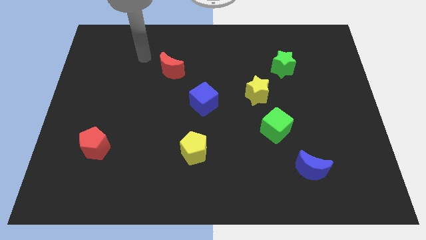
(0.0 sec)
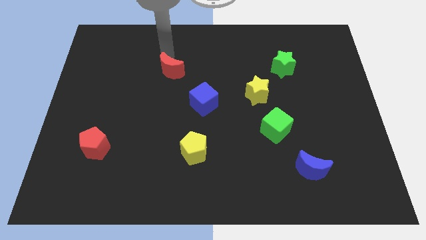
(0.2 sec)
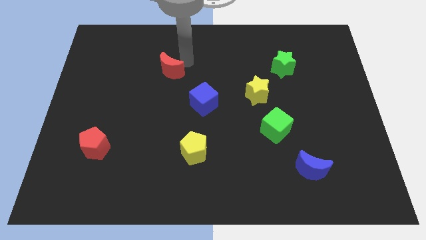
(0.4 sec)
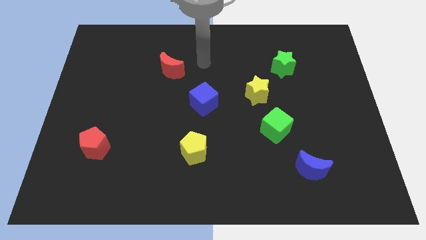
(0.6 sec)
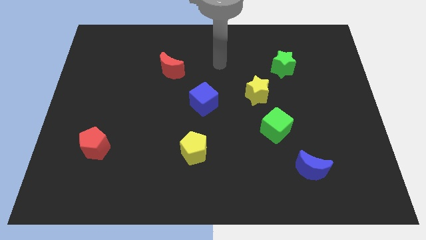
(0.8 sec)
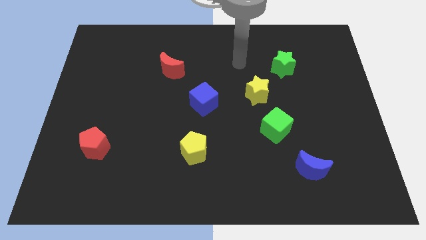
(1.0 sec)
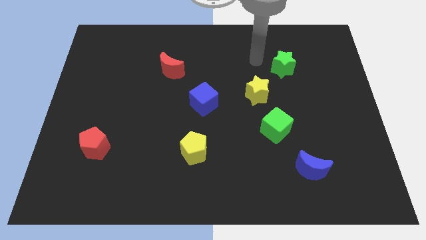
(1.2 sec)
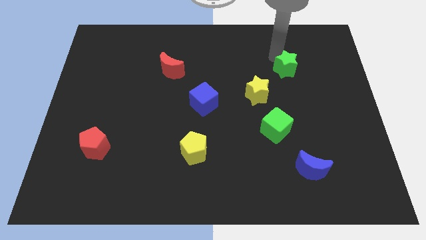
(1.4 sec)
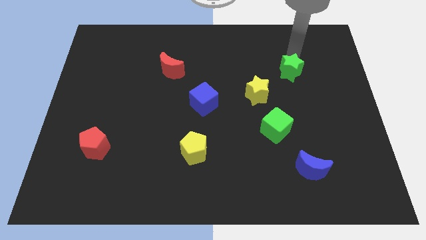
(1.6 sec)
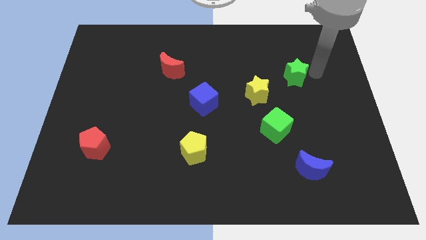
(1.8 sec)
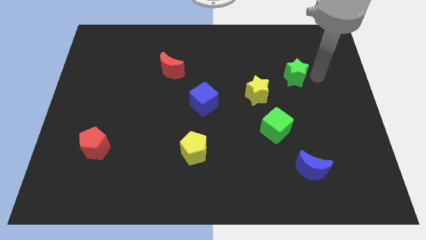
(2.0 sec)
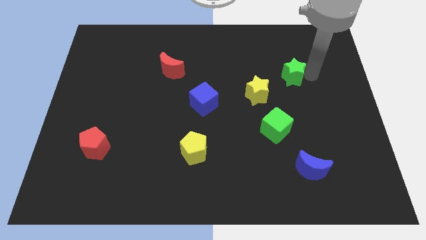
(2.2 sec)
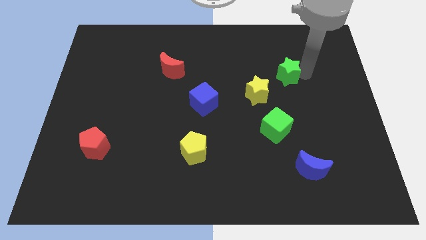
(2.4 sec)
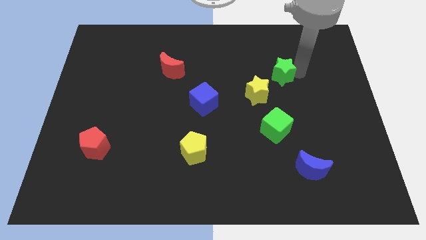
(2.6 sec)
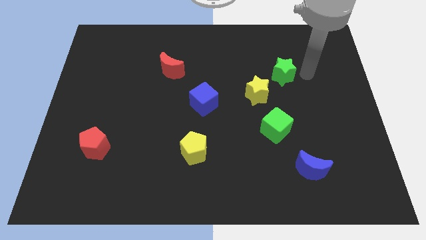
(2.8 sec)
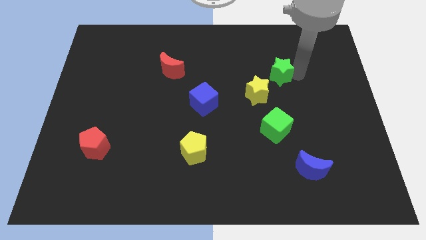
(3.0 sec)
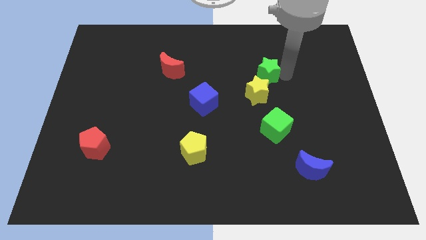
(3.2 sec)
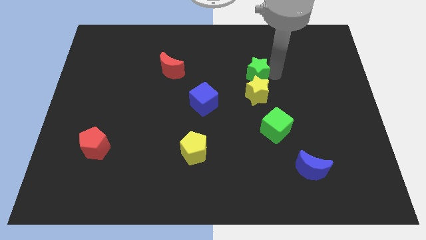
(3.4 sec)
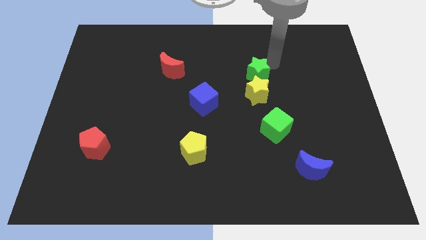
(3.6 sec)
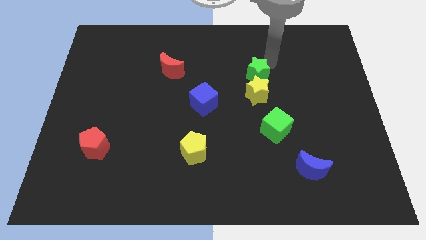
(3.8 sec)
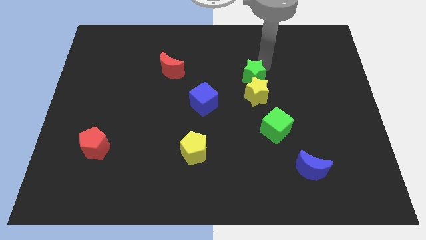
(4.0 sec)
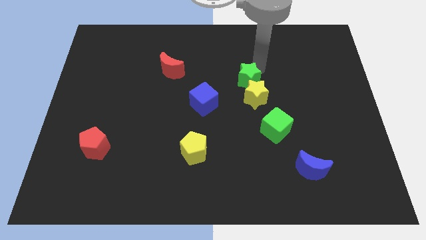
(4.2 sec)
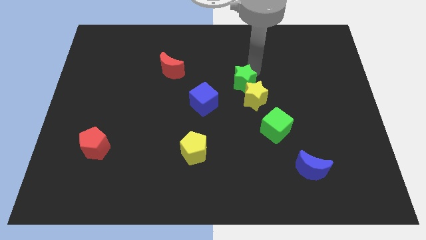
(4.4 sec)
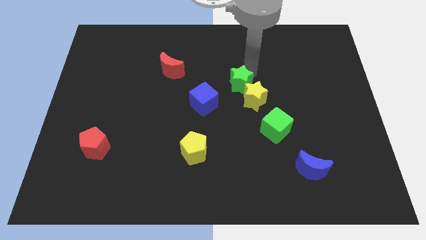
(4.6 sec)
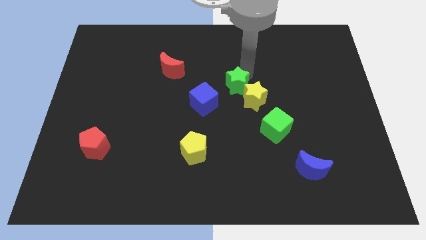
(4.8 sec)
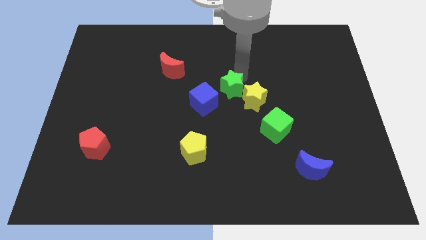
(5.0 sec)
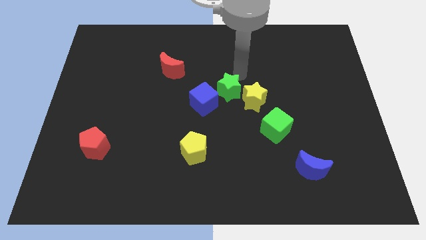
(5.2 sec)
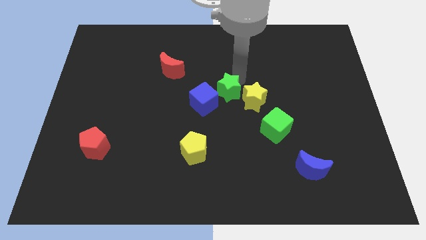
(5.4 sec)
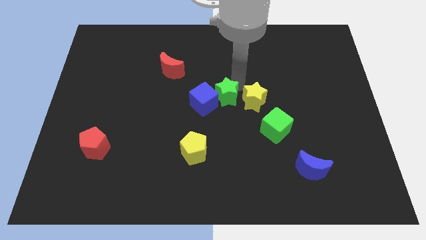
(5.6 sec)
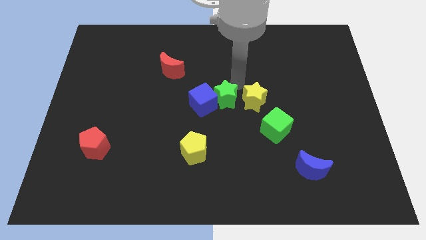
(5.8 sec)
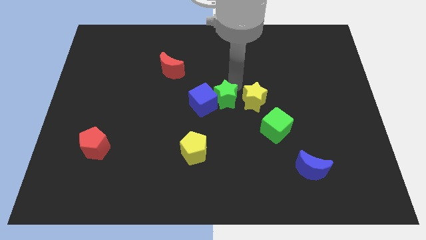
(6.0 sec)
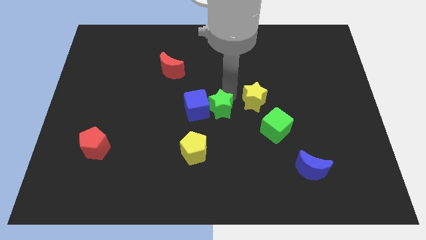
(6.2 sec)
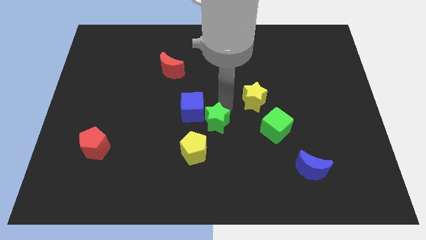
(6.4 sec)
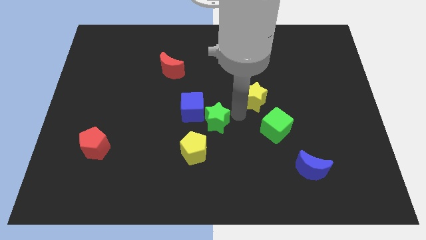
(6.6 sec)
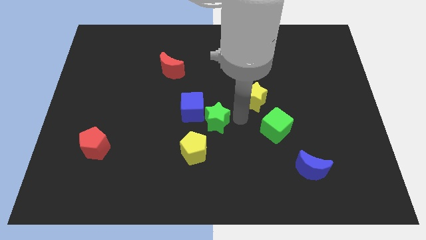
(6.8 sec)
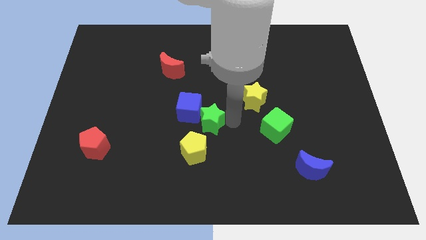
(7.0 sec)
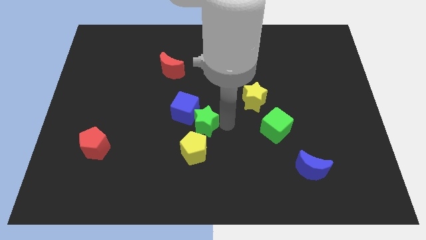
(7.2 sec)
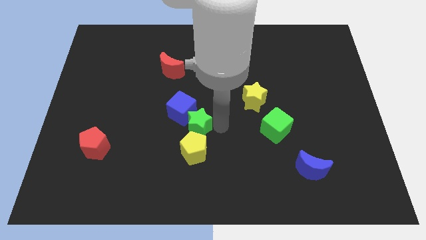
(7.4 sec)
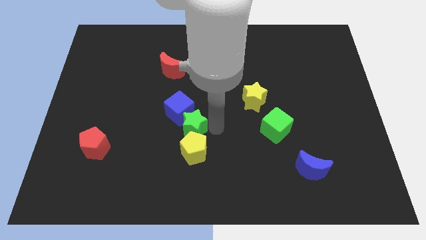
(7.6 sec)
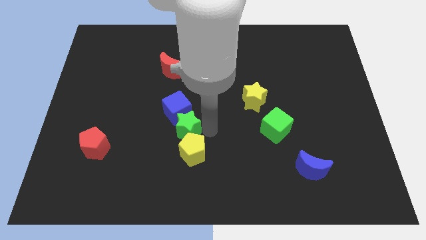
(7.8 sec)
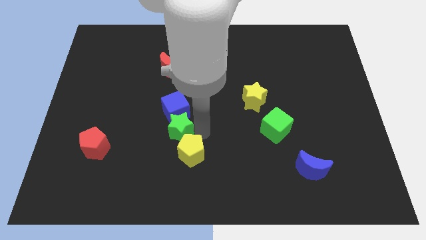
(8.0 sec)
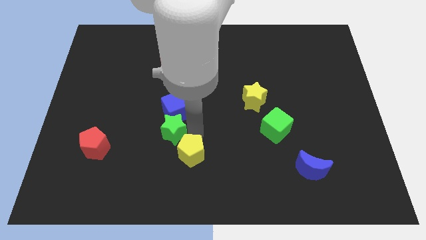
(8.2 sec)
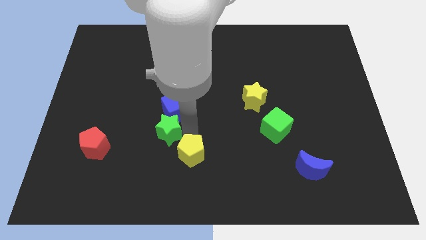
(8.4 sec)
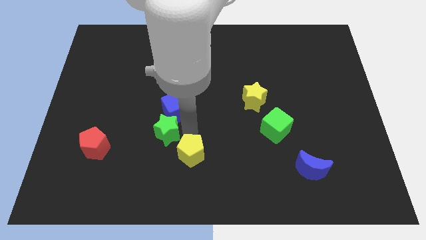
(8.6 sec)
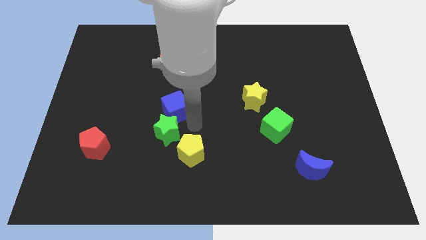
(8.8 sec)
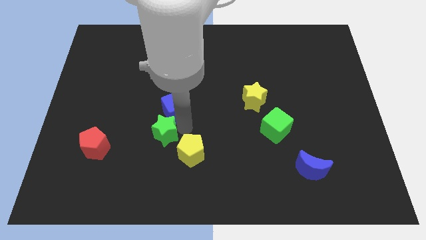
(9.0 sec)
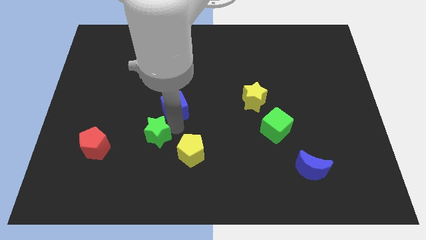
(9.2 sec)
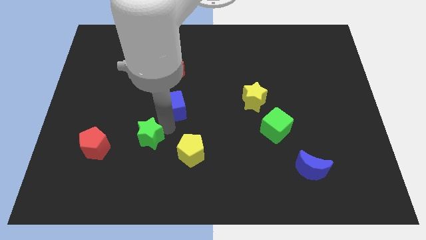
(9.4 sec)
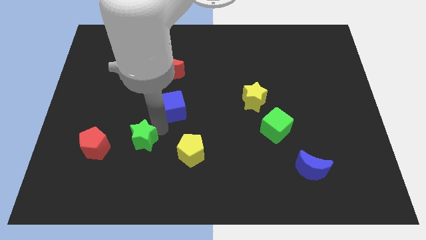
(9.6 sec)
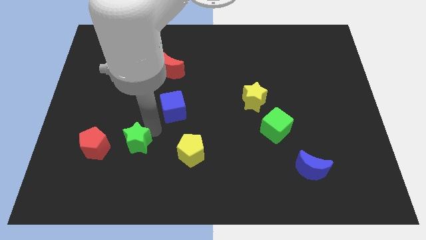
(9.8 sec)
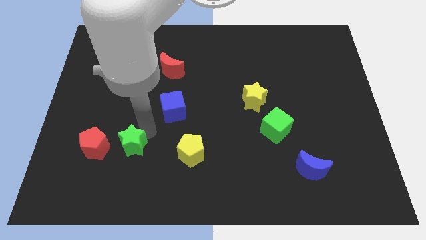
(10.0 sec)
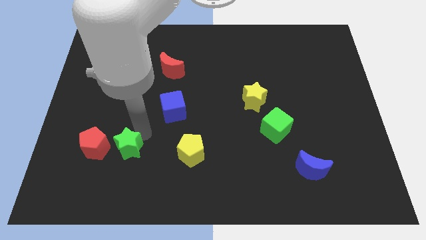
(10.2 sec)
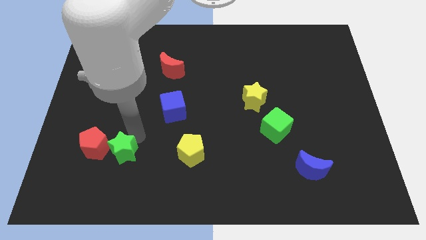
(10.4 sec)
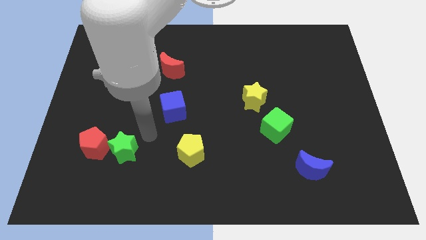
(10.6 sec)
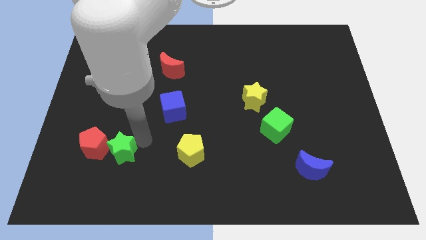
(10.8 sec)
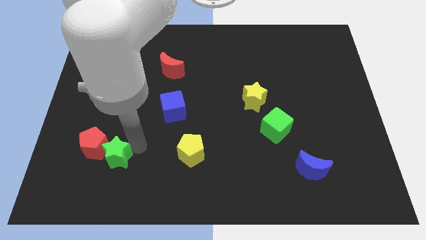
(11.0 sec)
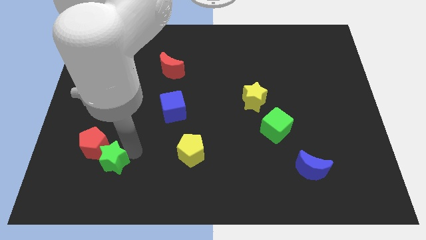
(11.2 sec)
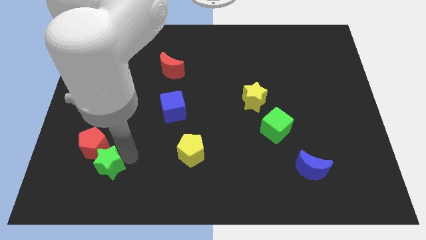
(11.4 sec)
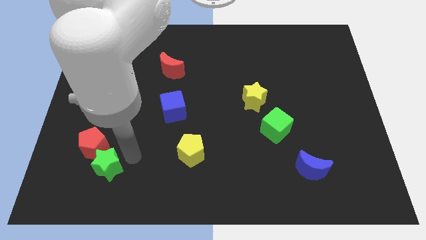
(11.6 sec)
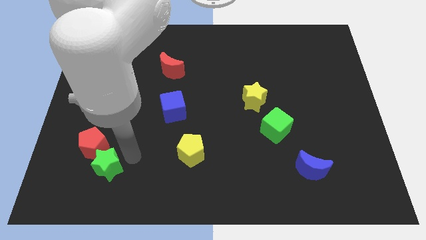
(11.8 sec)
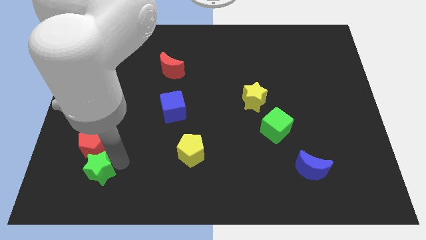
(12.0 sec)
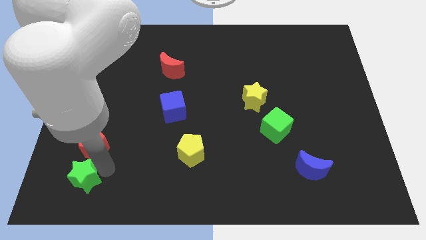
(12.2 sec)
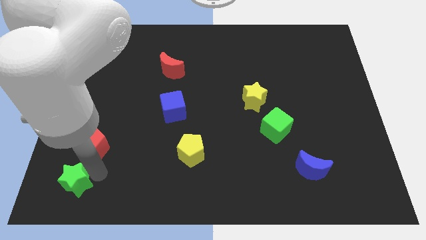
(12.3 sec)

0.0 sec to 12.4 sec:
push the green star to the bottom left

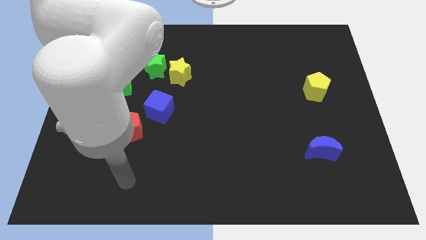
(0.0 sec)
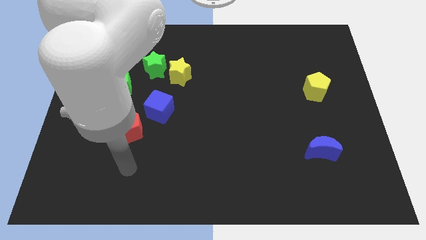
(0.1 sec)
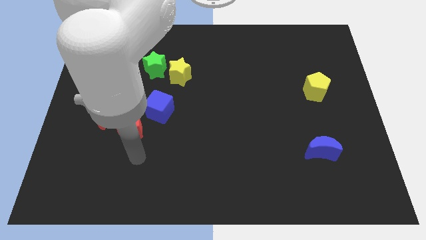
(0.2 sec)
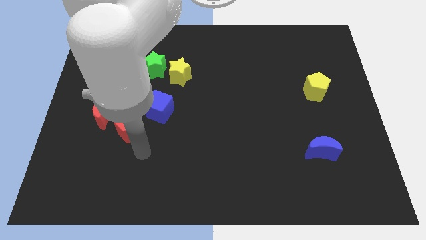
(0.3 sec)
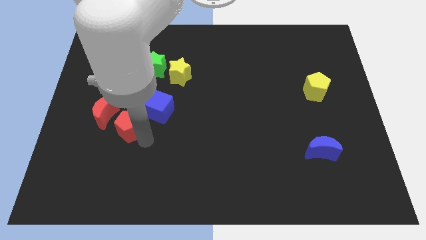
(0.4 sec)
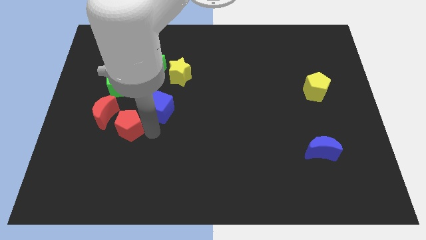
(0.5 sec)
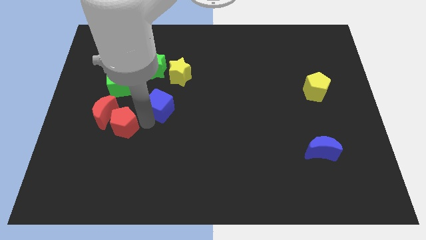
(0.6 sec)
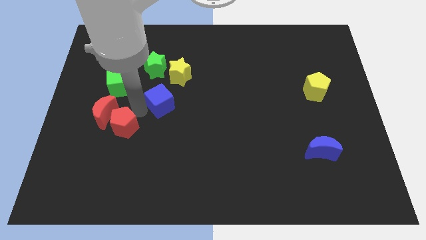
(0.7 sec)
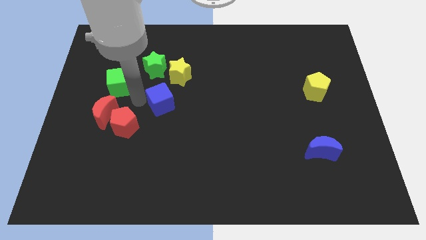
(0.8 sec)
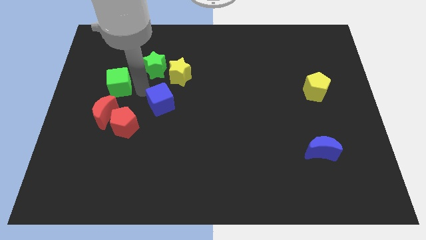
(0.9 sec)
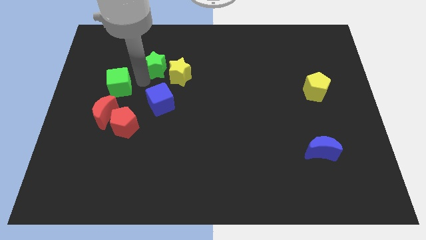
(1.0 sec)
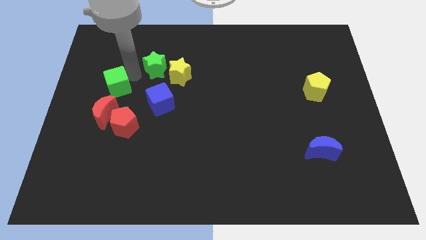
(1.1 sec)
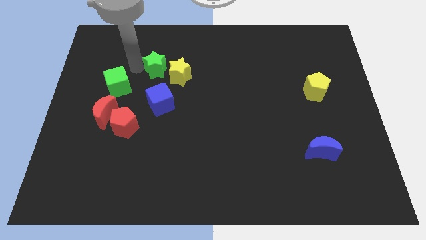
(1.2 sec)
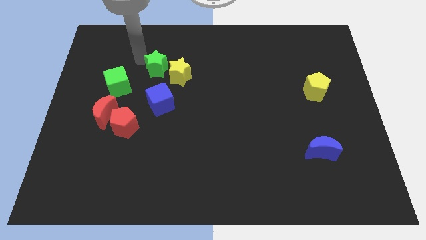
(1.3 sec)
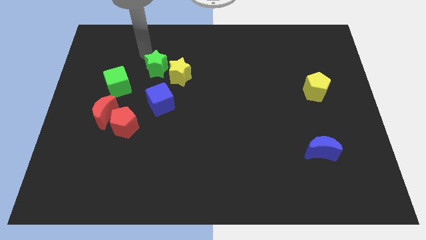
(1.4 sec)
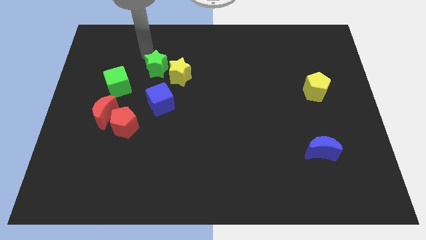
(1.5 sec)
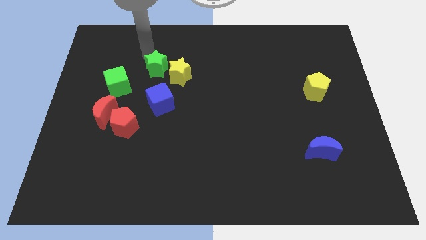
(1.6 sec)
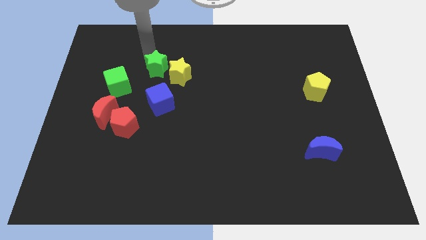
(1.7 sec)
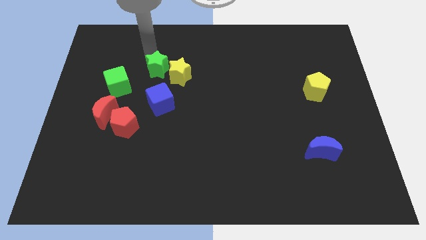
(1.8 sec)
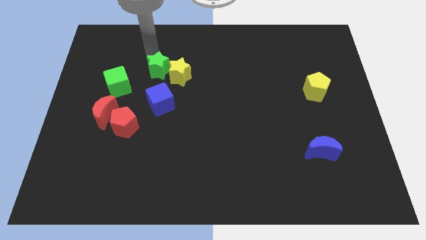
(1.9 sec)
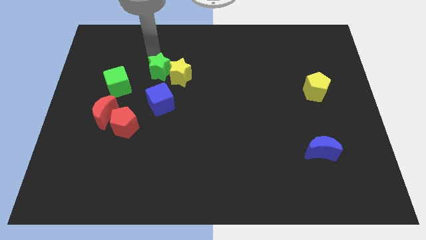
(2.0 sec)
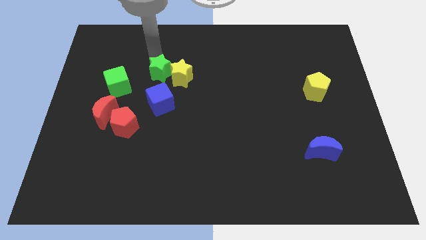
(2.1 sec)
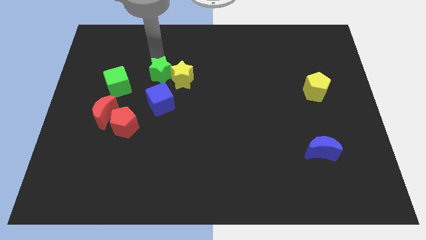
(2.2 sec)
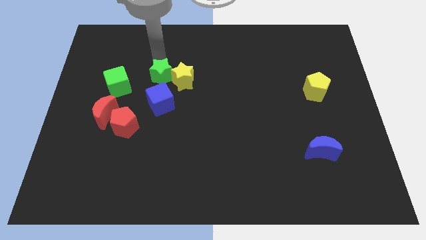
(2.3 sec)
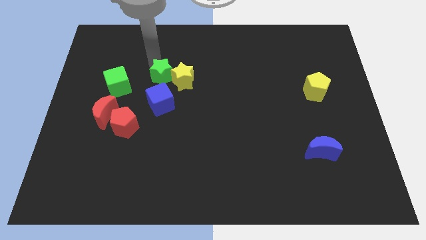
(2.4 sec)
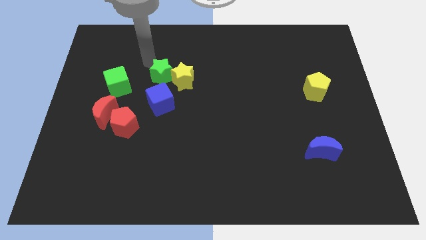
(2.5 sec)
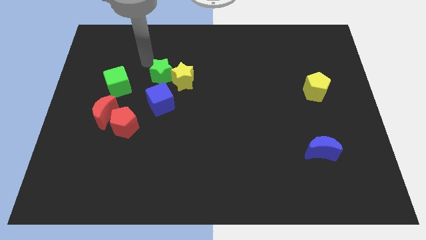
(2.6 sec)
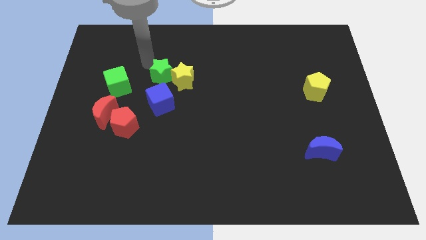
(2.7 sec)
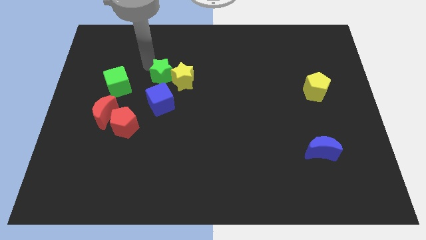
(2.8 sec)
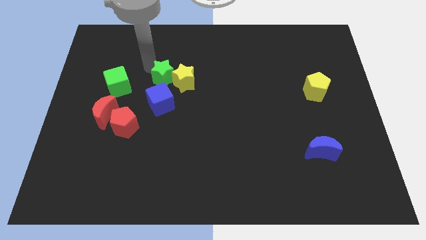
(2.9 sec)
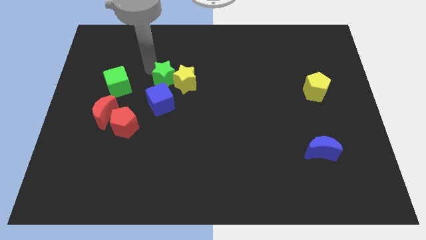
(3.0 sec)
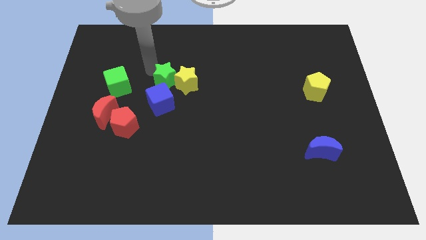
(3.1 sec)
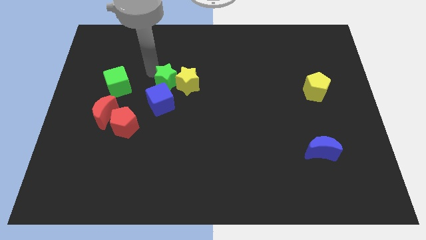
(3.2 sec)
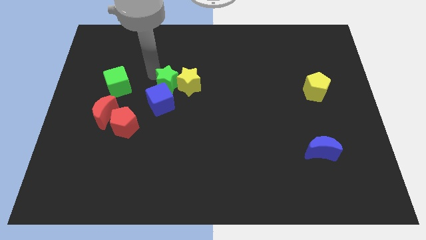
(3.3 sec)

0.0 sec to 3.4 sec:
push the green star to the center
